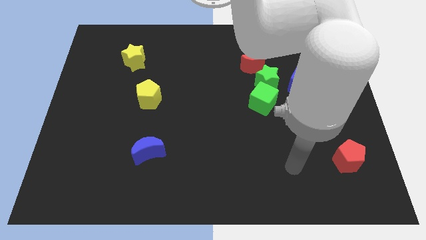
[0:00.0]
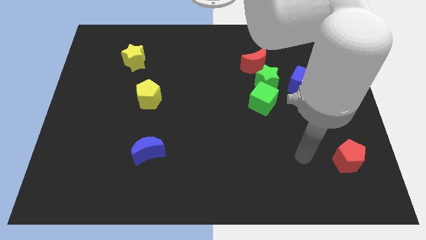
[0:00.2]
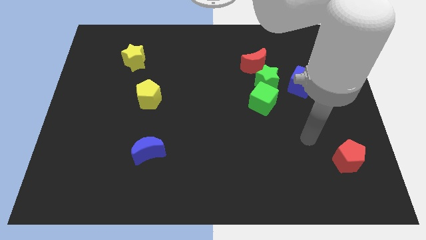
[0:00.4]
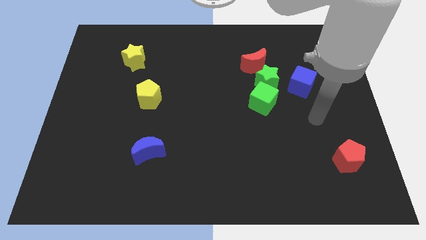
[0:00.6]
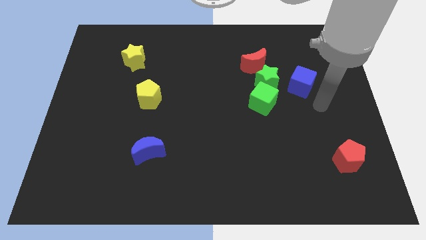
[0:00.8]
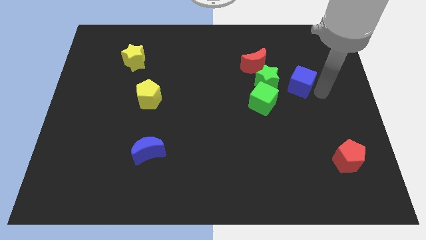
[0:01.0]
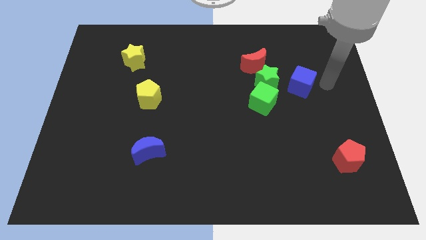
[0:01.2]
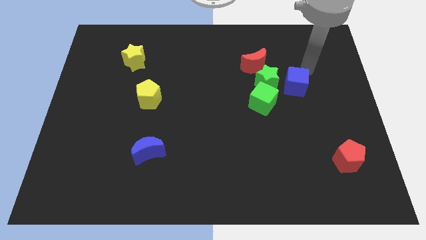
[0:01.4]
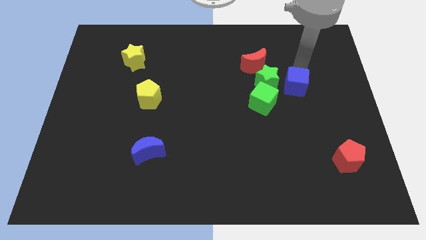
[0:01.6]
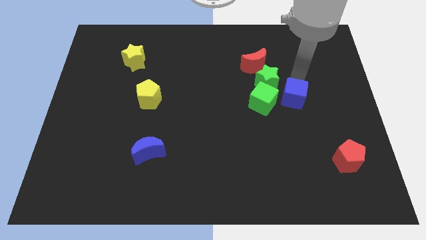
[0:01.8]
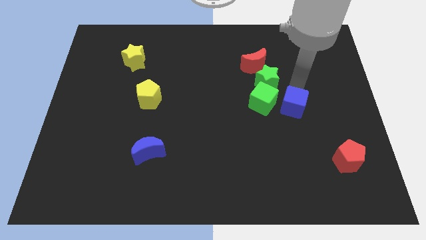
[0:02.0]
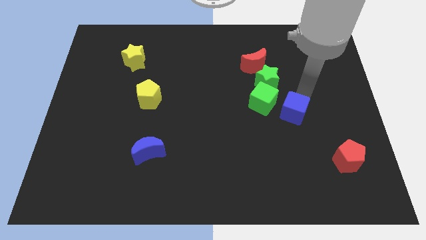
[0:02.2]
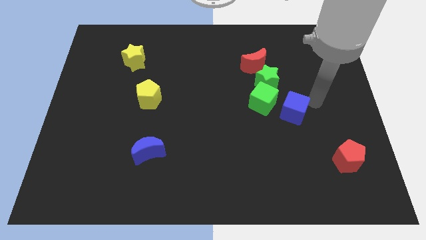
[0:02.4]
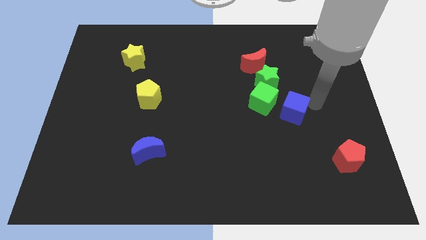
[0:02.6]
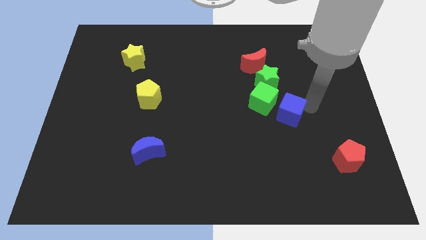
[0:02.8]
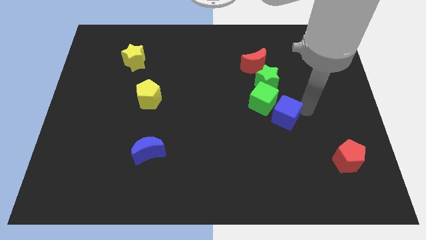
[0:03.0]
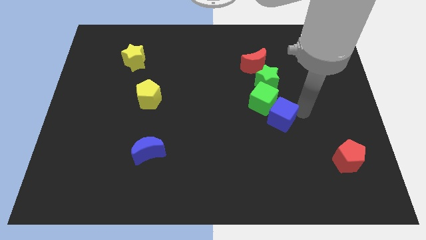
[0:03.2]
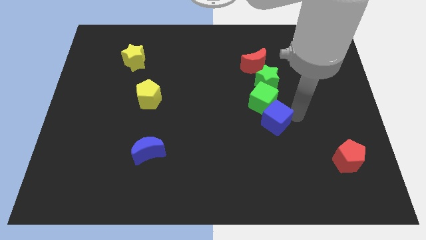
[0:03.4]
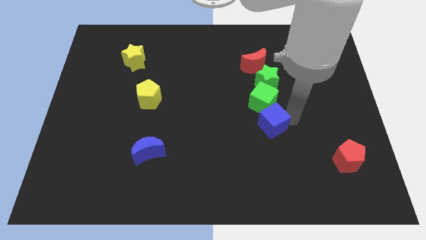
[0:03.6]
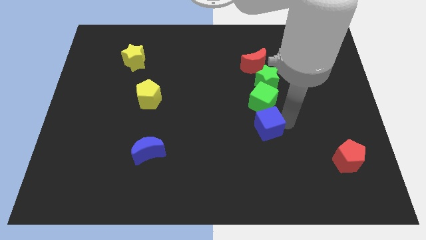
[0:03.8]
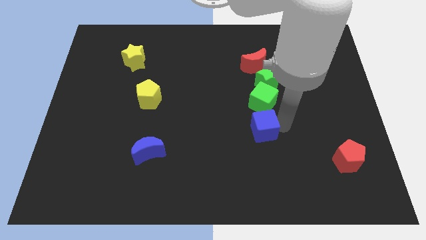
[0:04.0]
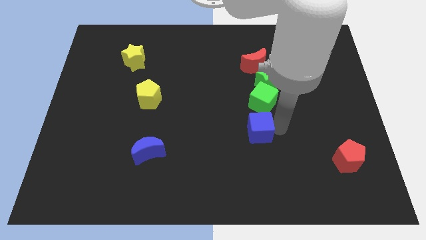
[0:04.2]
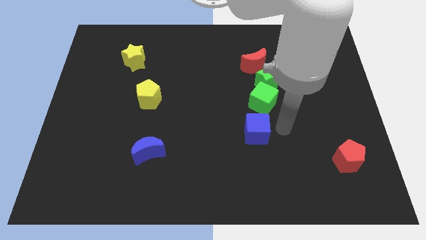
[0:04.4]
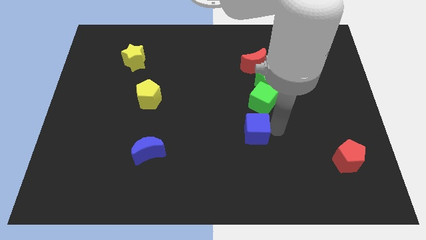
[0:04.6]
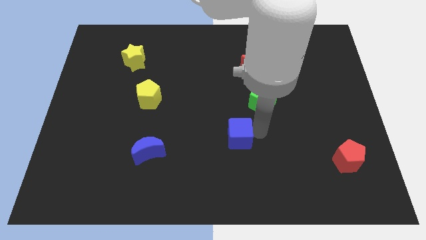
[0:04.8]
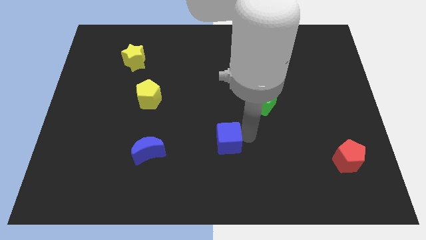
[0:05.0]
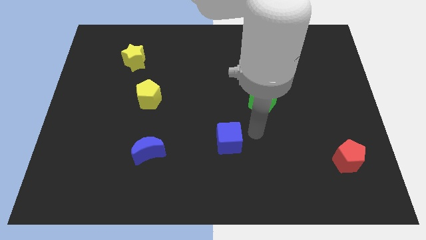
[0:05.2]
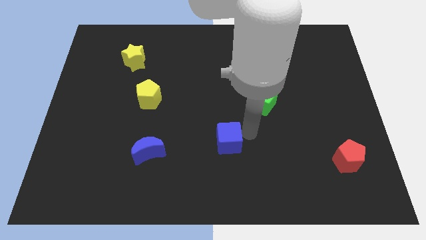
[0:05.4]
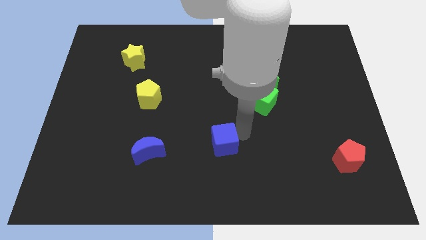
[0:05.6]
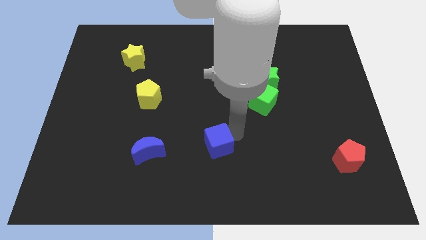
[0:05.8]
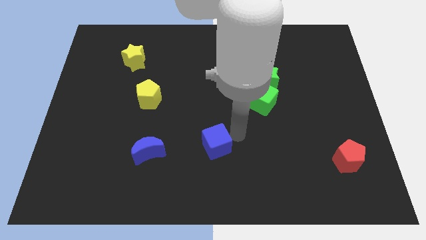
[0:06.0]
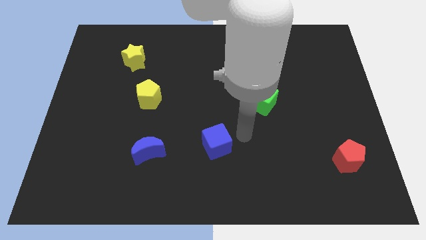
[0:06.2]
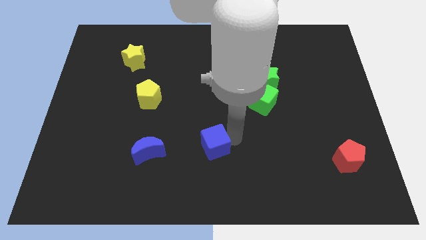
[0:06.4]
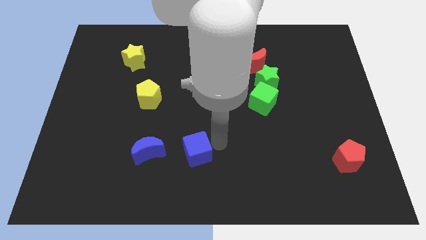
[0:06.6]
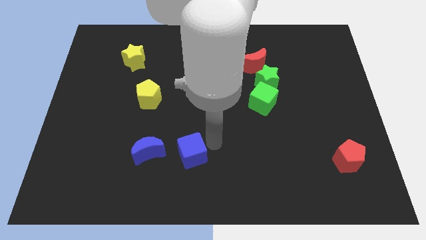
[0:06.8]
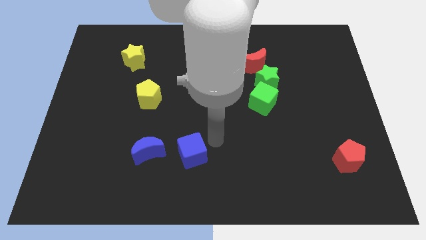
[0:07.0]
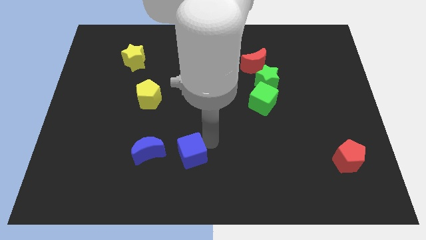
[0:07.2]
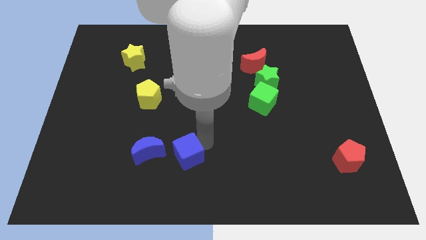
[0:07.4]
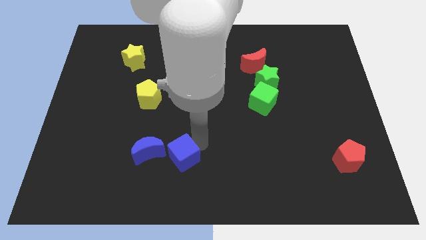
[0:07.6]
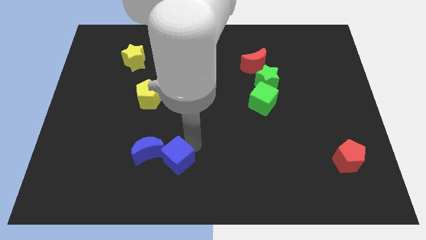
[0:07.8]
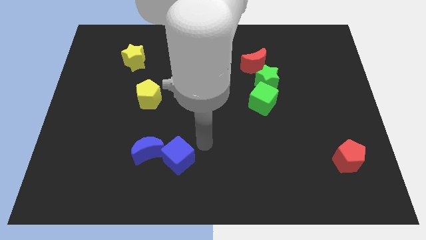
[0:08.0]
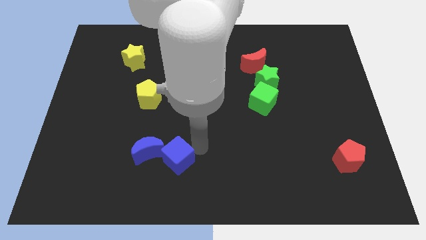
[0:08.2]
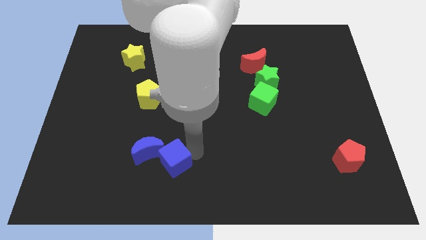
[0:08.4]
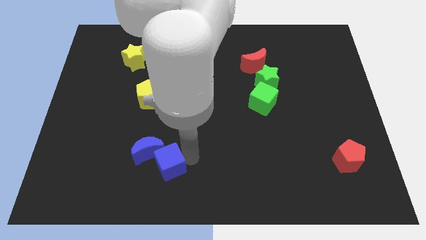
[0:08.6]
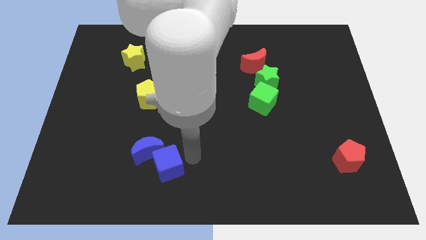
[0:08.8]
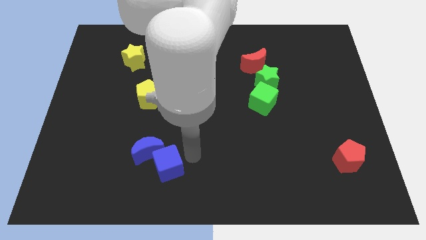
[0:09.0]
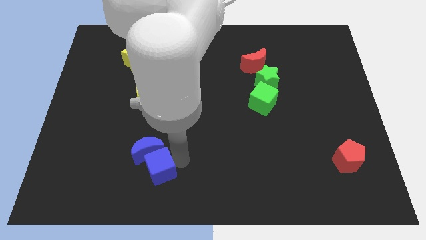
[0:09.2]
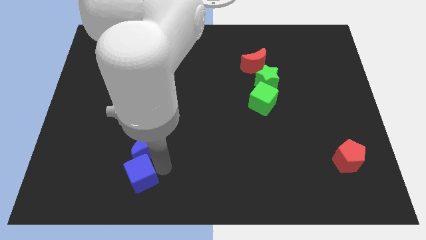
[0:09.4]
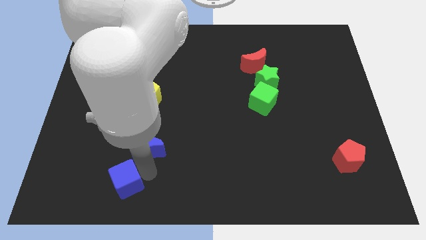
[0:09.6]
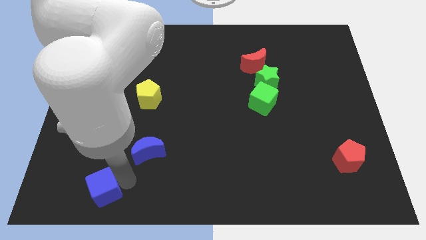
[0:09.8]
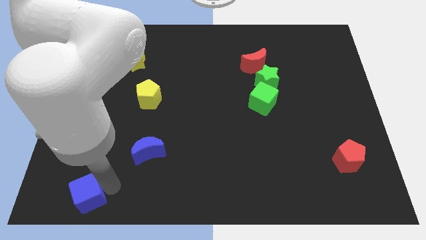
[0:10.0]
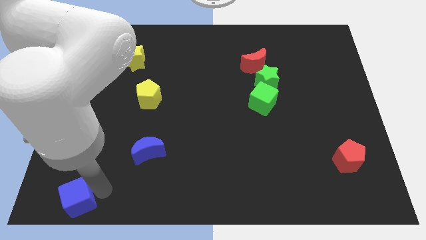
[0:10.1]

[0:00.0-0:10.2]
move the blue cube to the bottom left of the board
